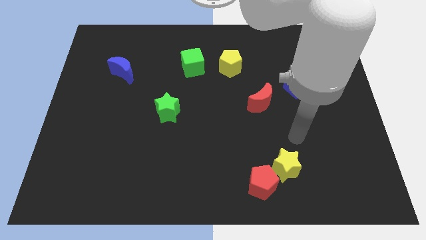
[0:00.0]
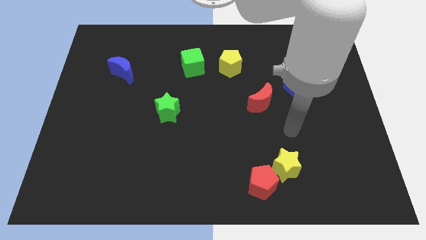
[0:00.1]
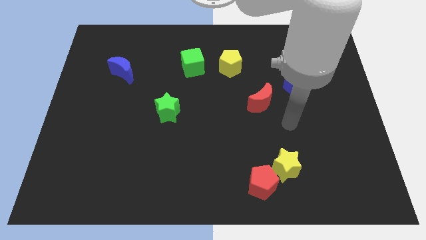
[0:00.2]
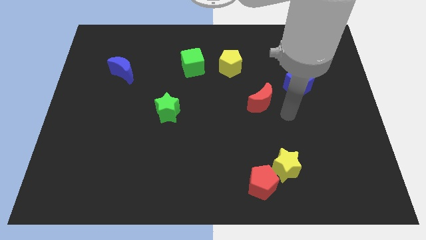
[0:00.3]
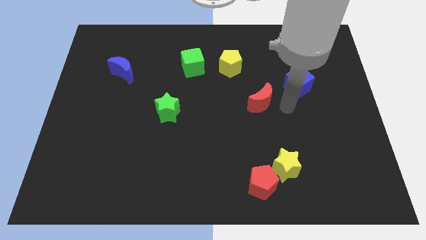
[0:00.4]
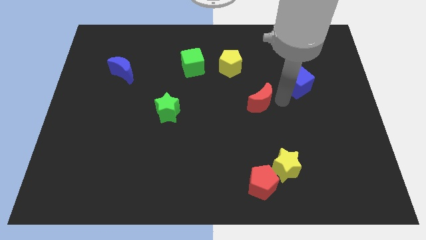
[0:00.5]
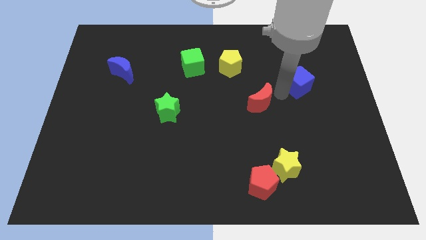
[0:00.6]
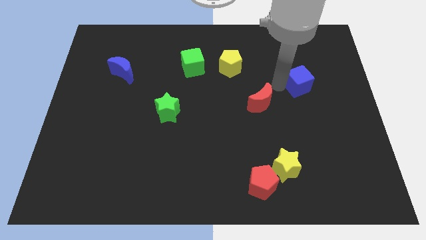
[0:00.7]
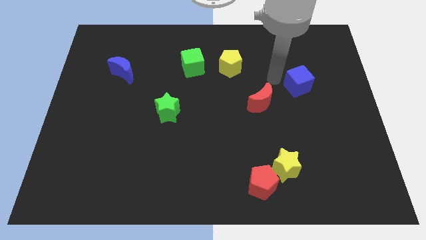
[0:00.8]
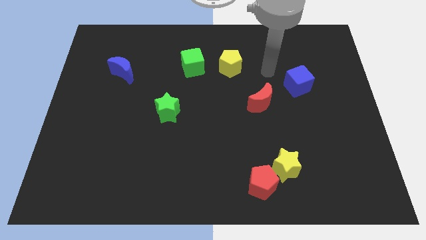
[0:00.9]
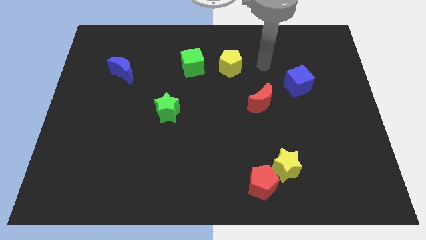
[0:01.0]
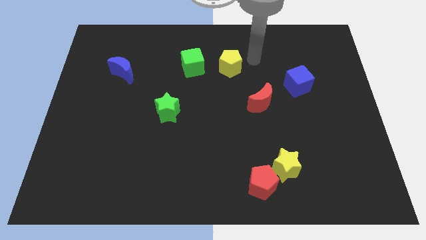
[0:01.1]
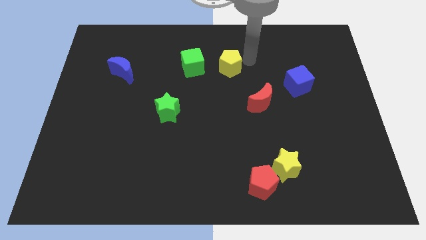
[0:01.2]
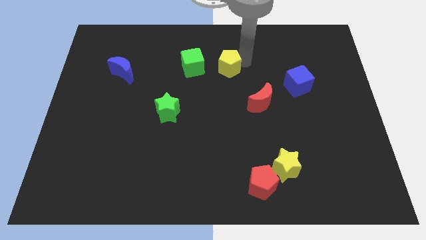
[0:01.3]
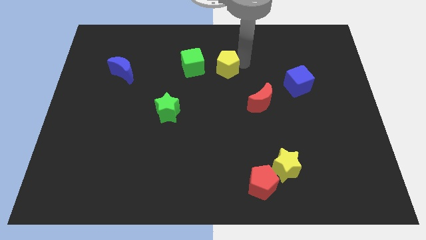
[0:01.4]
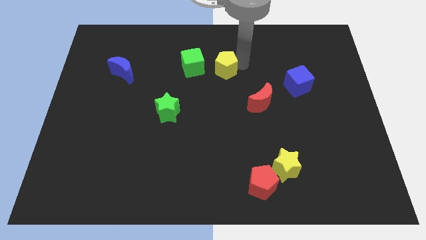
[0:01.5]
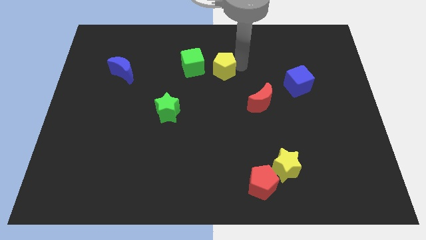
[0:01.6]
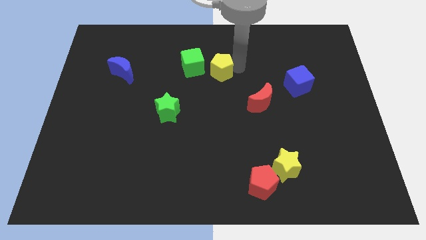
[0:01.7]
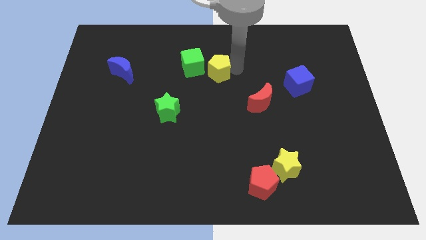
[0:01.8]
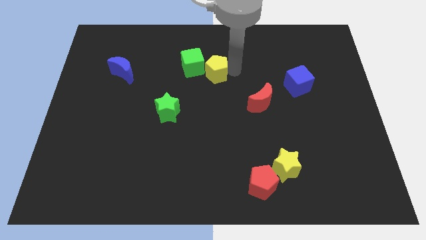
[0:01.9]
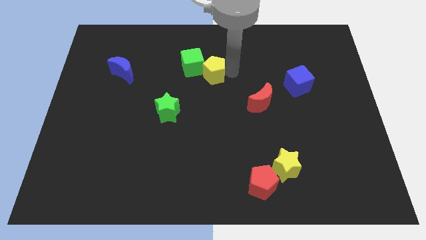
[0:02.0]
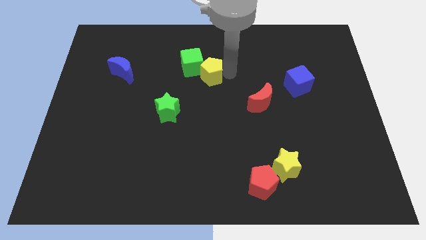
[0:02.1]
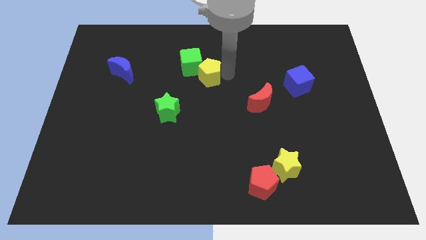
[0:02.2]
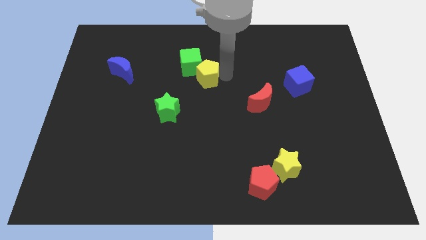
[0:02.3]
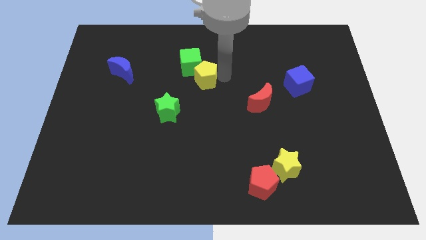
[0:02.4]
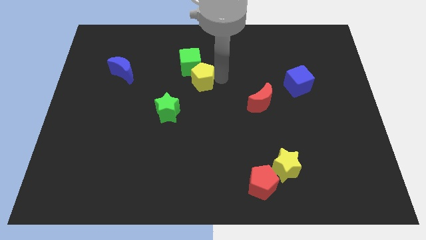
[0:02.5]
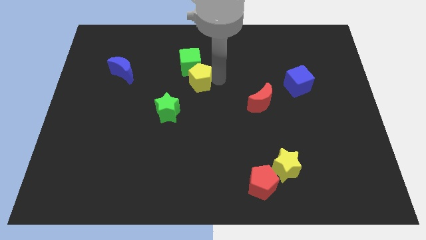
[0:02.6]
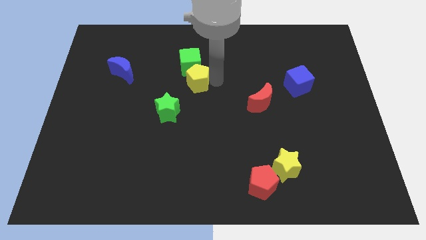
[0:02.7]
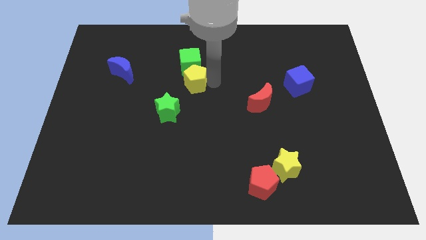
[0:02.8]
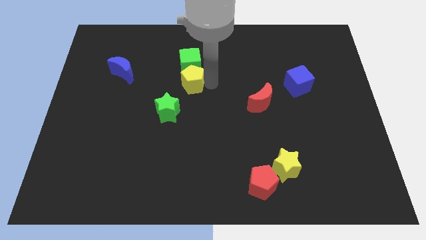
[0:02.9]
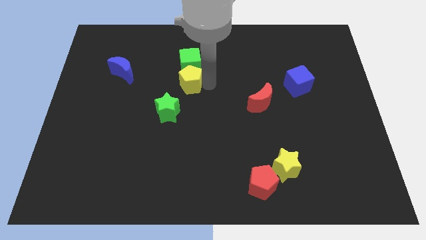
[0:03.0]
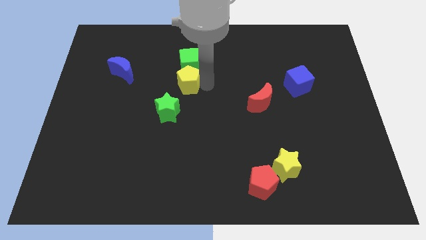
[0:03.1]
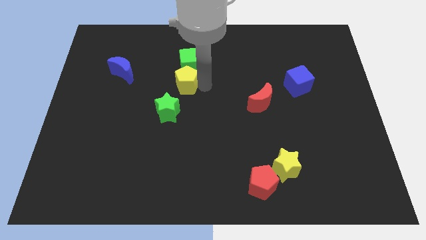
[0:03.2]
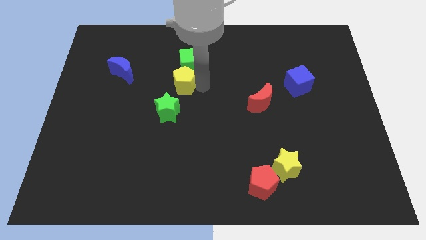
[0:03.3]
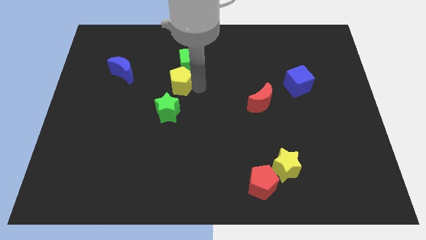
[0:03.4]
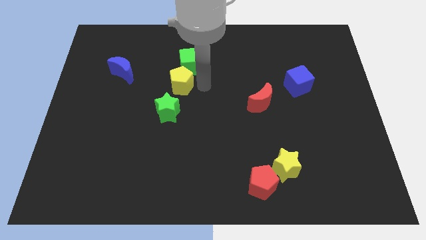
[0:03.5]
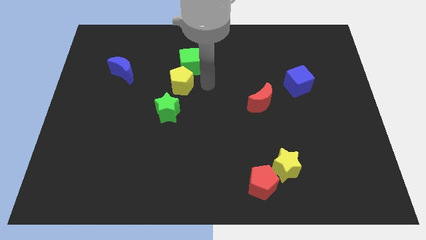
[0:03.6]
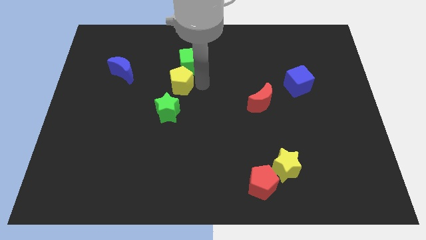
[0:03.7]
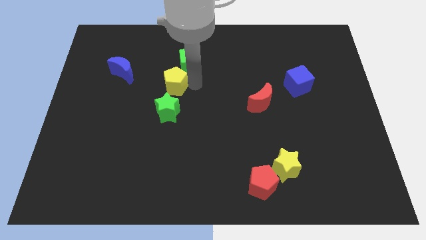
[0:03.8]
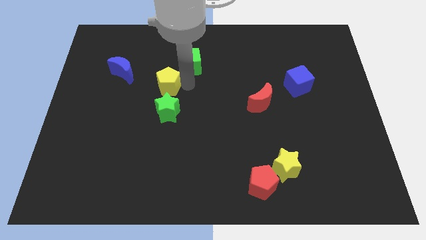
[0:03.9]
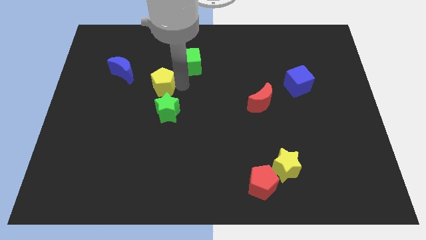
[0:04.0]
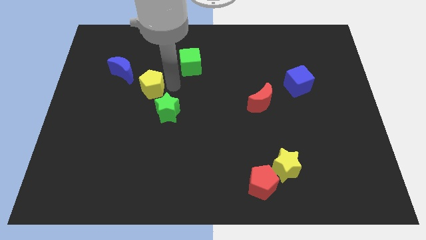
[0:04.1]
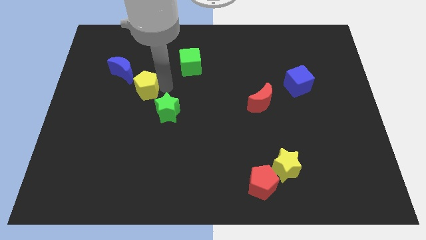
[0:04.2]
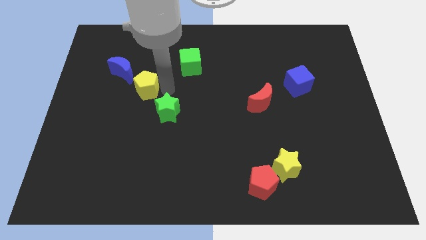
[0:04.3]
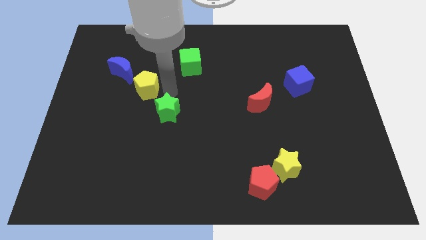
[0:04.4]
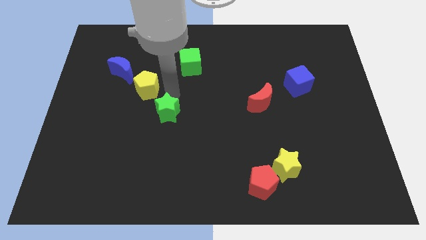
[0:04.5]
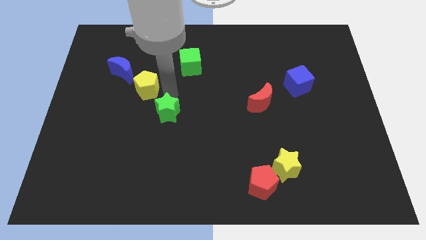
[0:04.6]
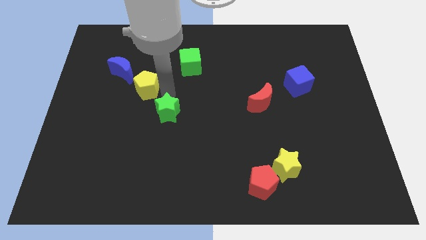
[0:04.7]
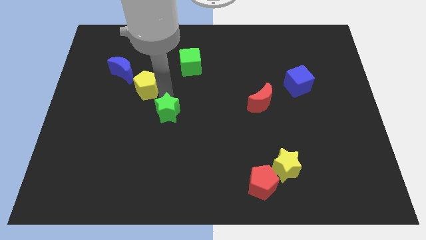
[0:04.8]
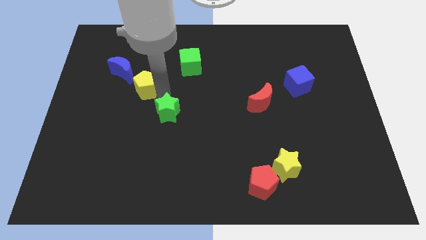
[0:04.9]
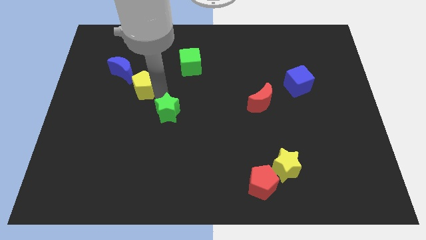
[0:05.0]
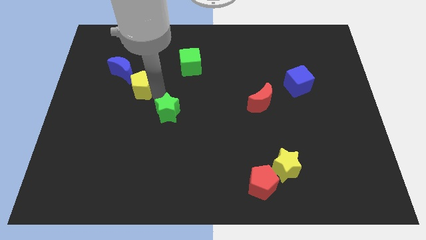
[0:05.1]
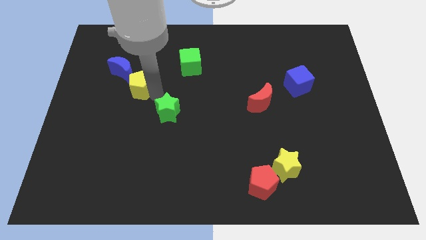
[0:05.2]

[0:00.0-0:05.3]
push the yellow pentagon left

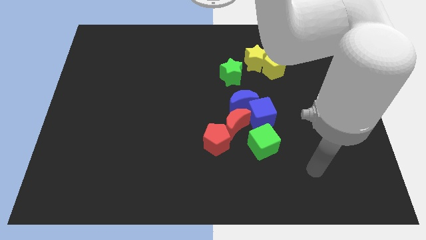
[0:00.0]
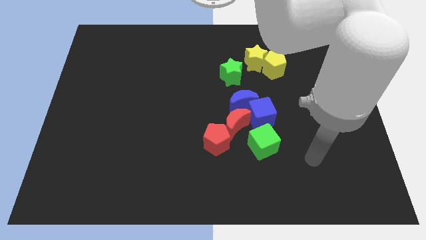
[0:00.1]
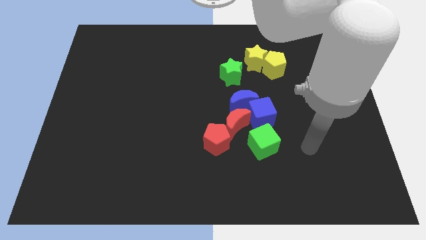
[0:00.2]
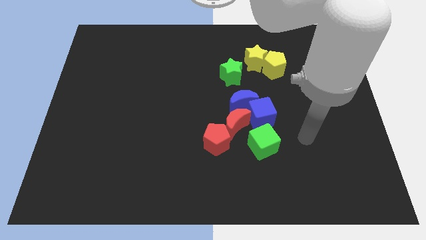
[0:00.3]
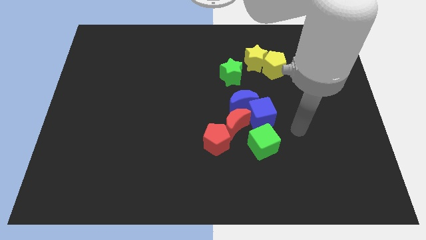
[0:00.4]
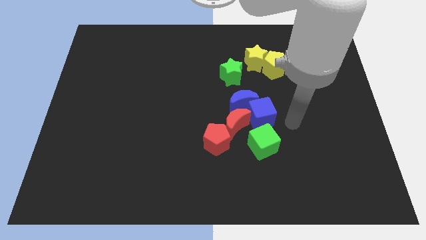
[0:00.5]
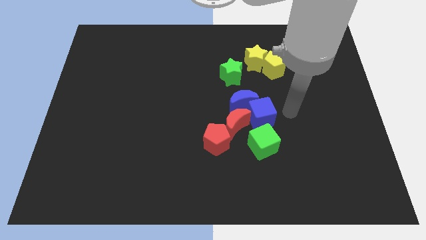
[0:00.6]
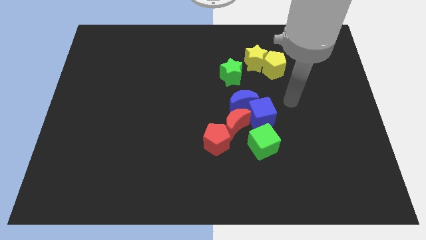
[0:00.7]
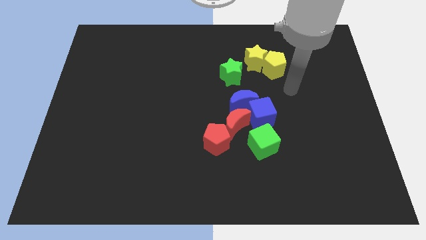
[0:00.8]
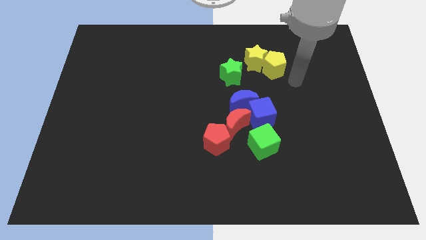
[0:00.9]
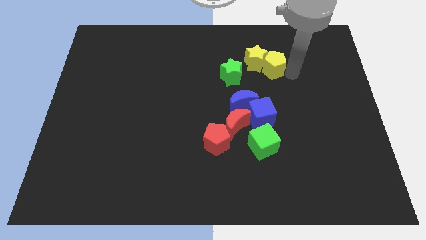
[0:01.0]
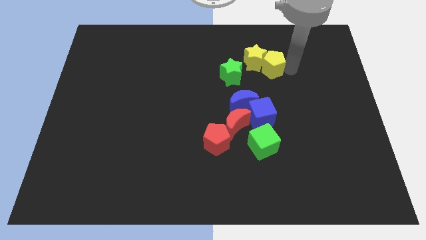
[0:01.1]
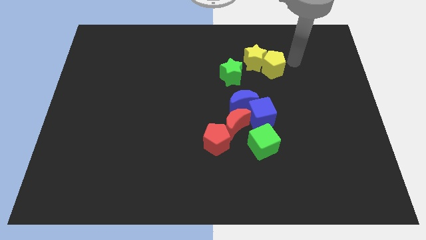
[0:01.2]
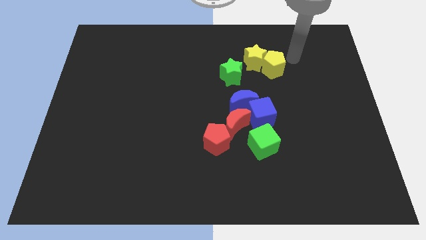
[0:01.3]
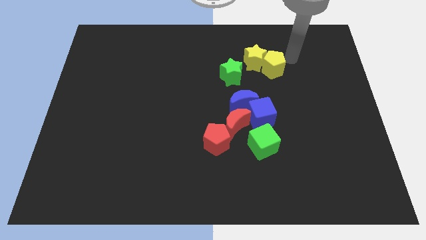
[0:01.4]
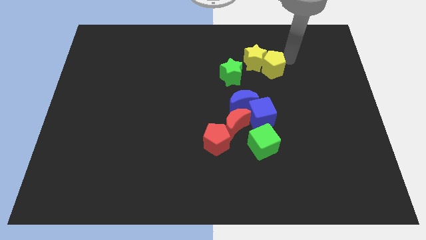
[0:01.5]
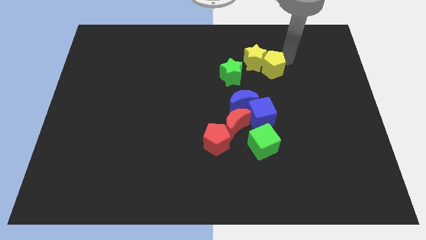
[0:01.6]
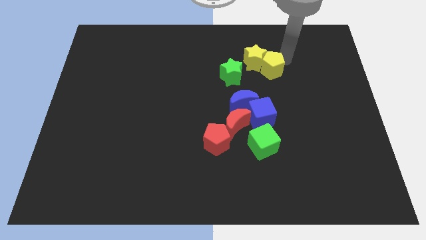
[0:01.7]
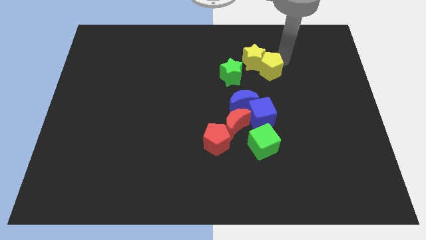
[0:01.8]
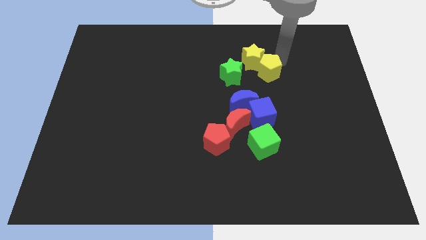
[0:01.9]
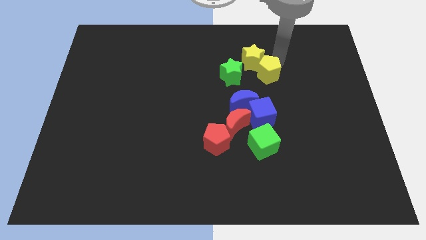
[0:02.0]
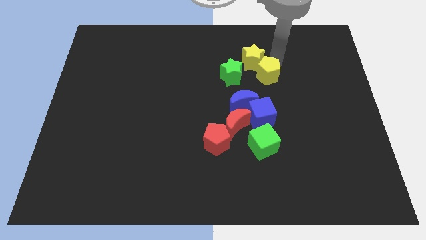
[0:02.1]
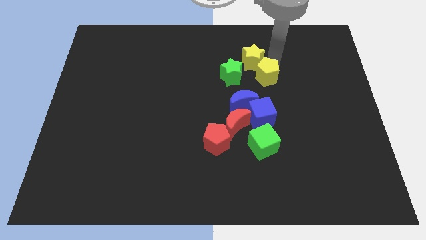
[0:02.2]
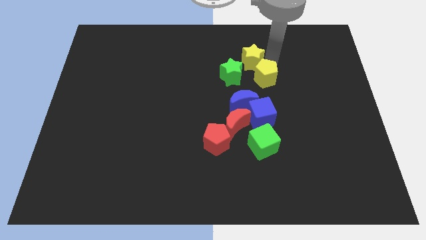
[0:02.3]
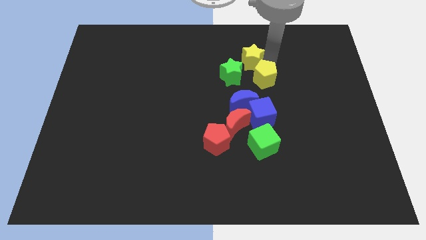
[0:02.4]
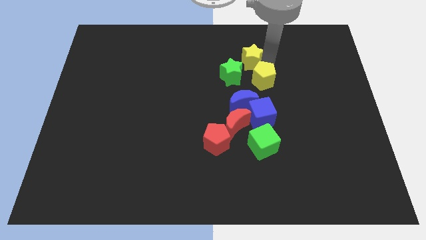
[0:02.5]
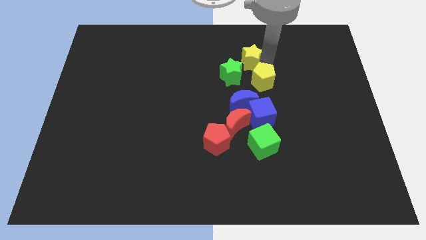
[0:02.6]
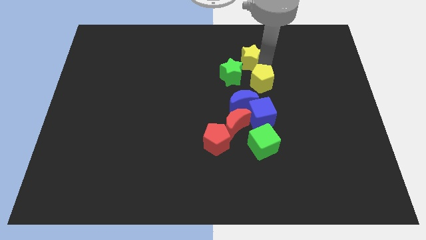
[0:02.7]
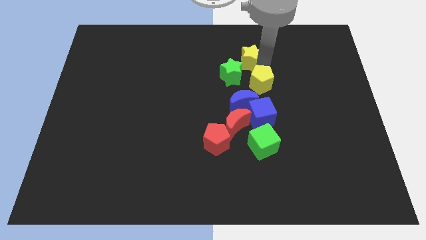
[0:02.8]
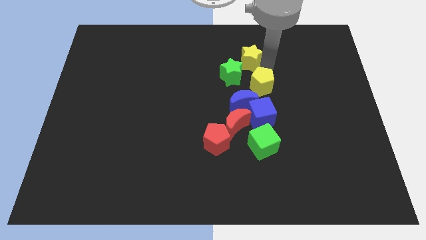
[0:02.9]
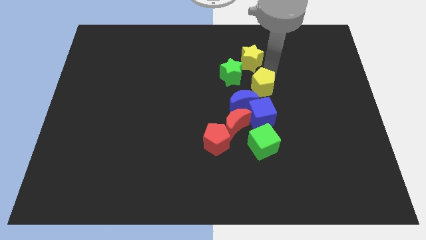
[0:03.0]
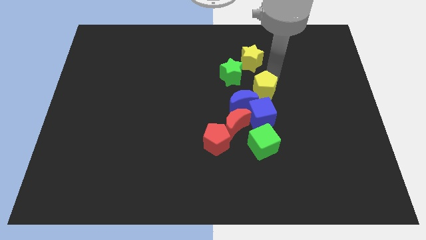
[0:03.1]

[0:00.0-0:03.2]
slightly push the yellow pentagon downwards and left
